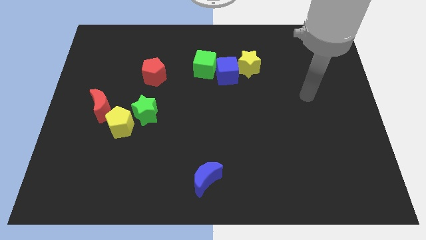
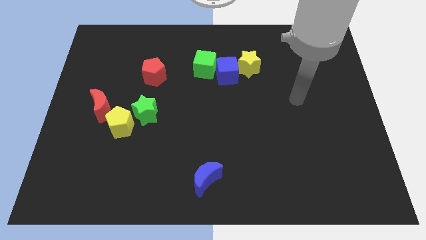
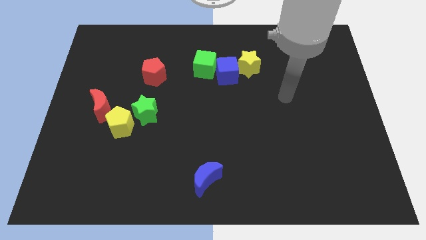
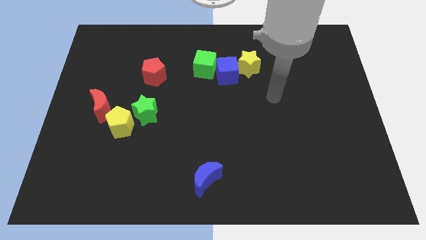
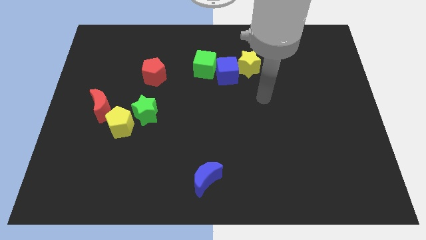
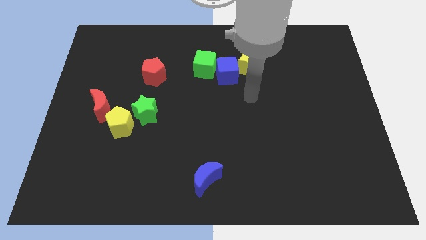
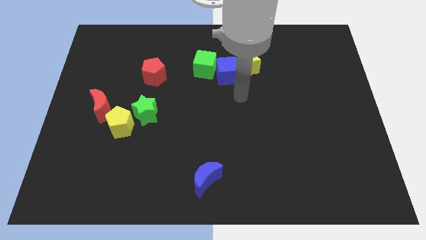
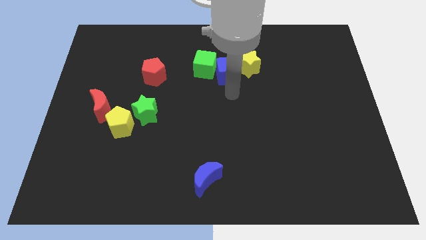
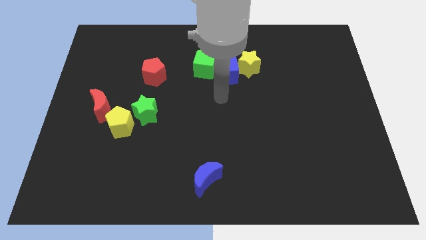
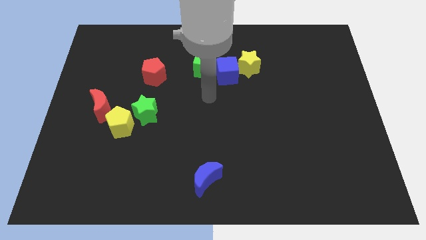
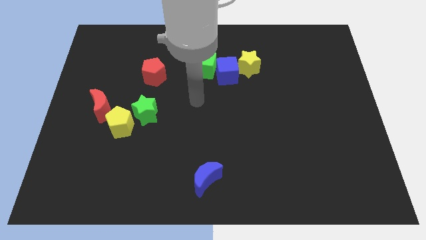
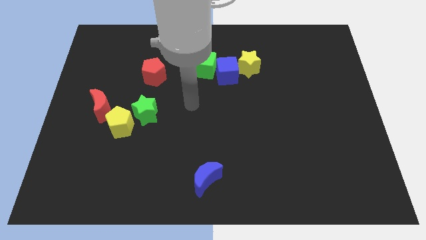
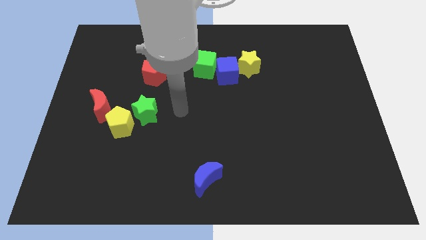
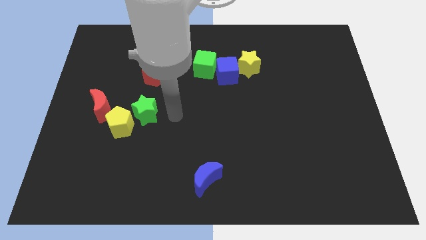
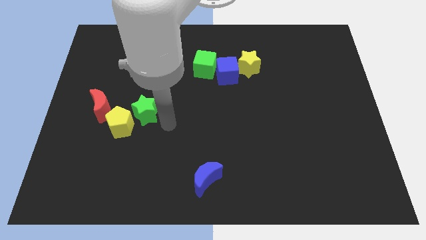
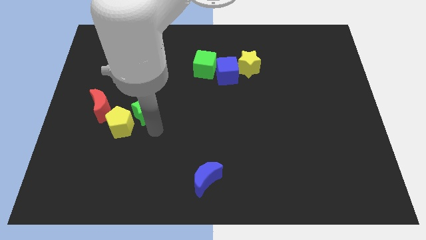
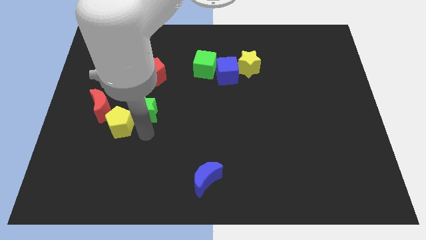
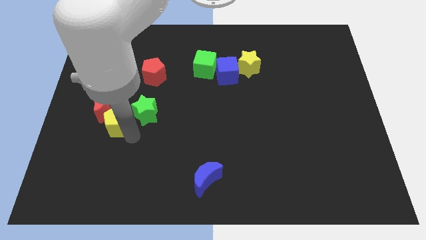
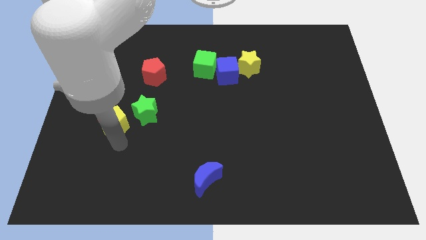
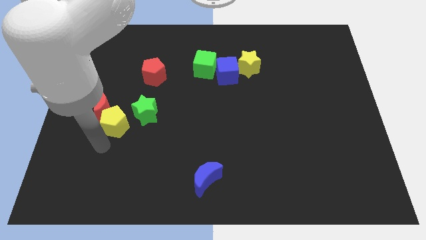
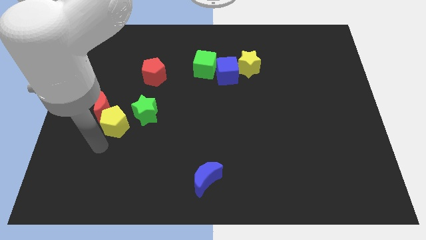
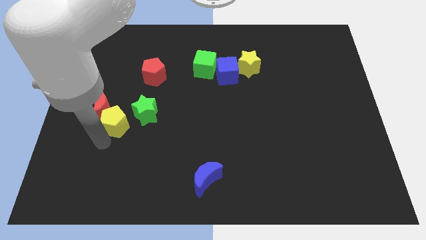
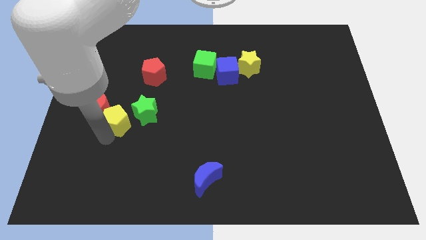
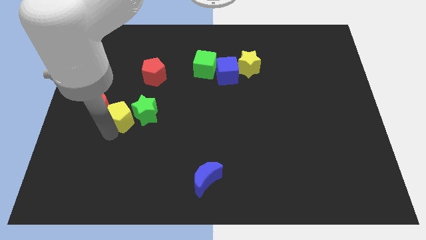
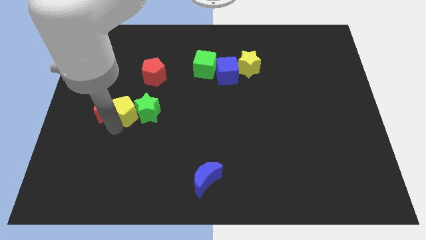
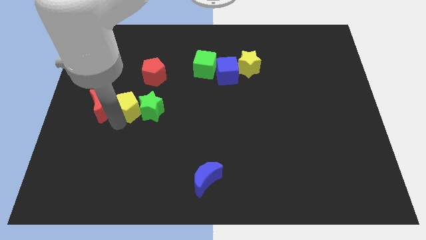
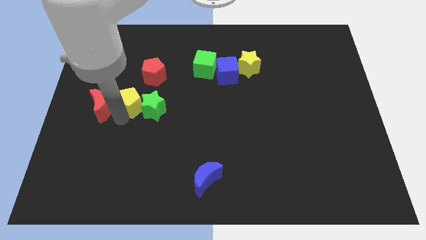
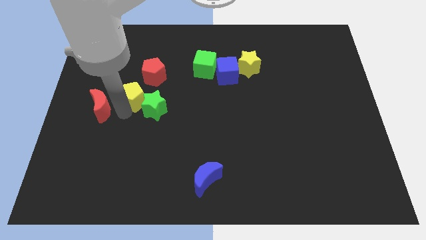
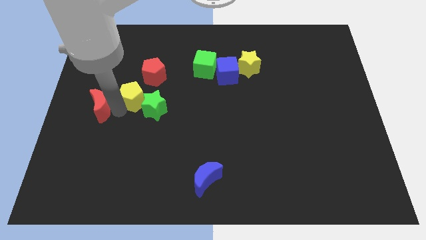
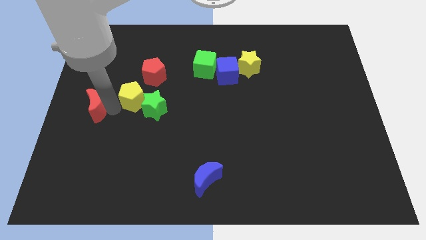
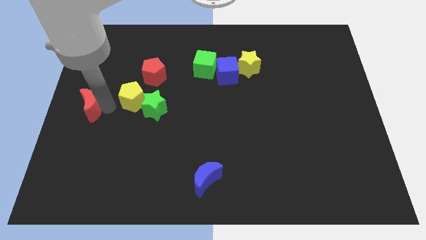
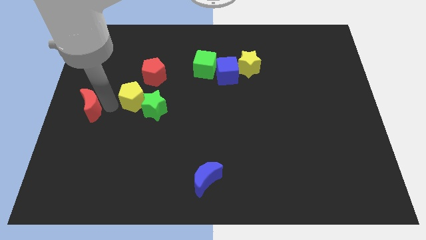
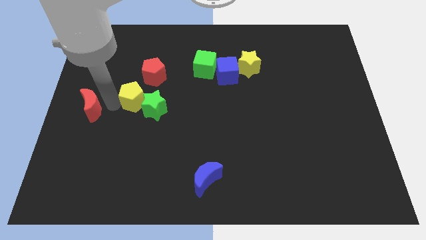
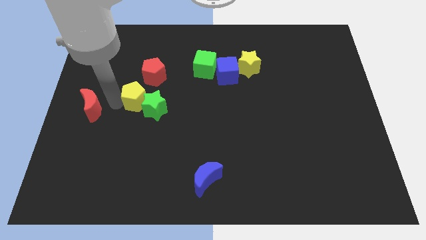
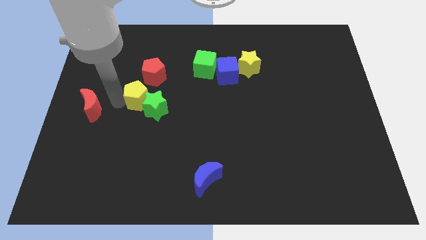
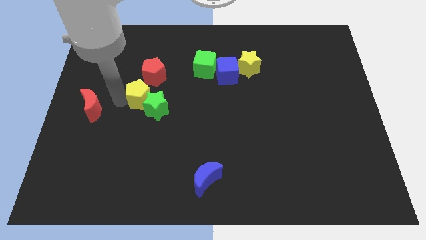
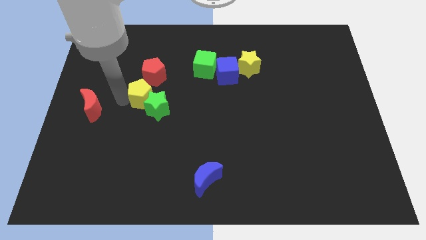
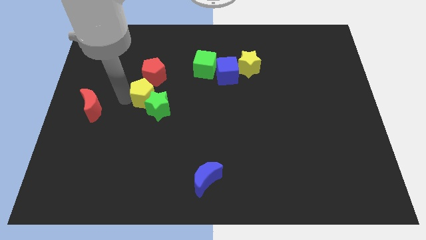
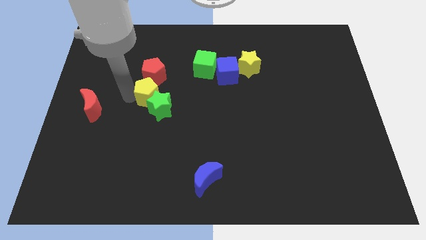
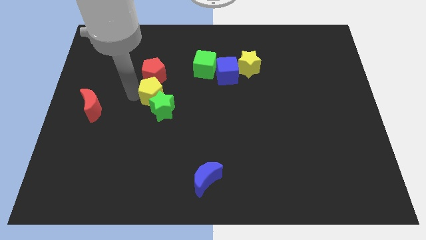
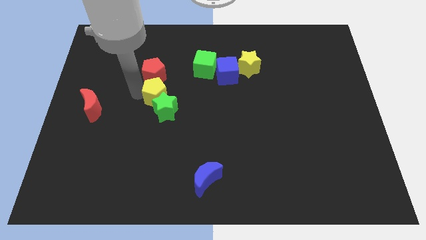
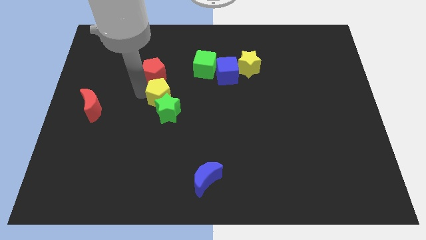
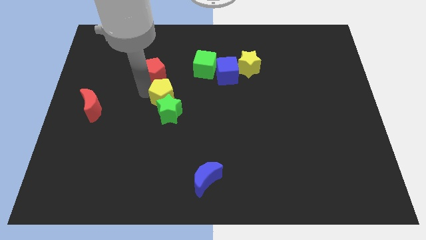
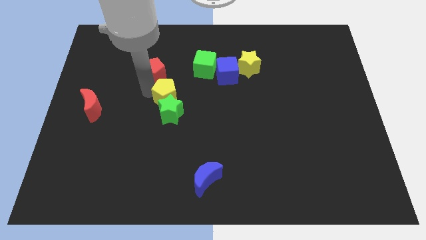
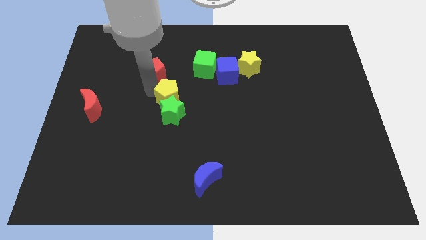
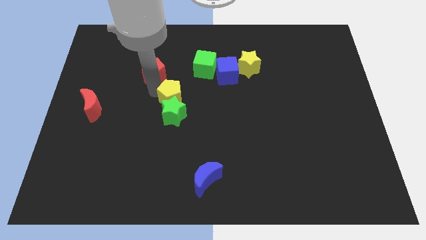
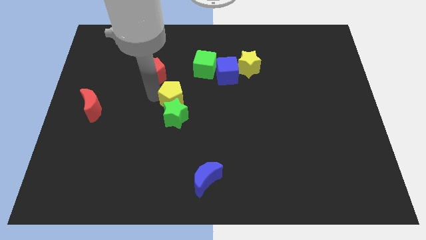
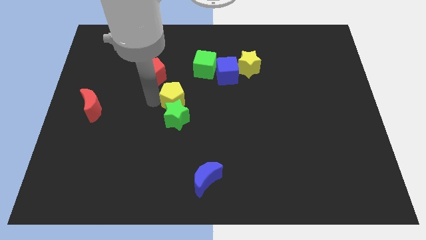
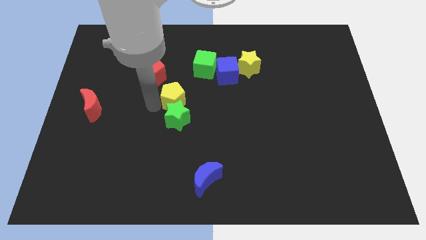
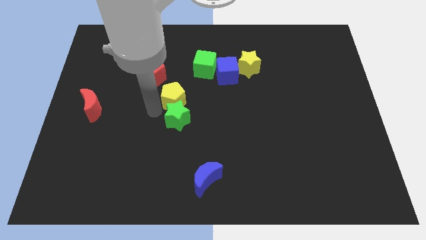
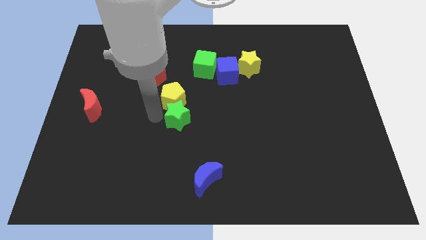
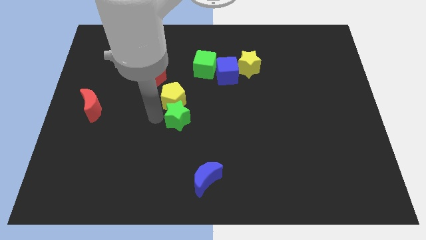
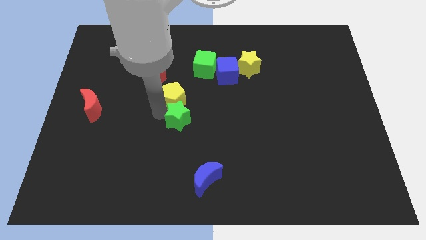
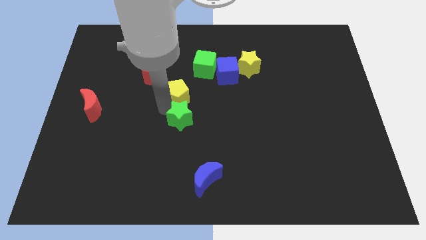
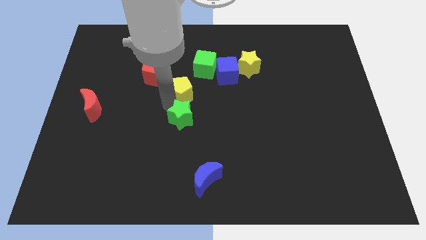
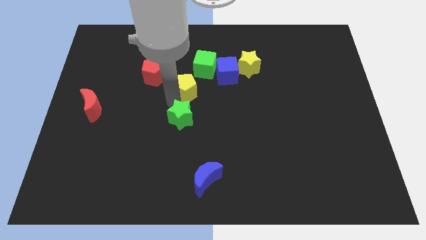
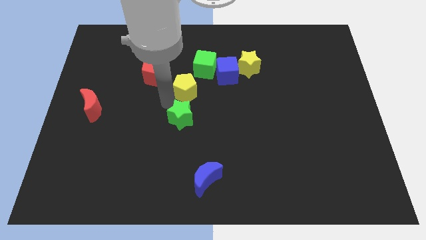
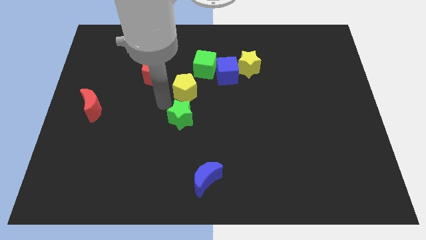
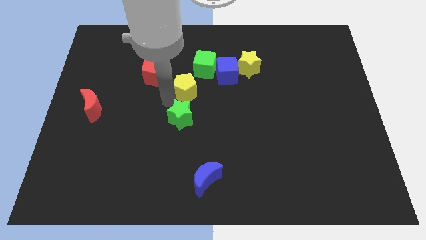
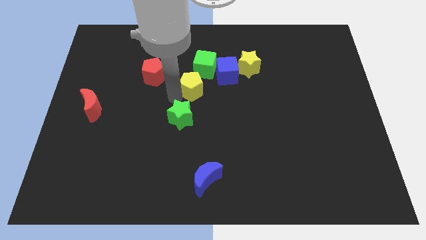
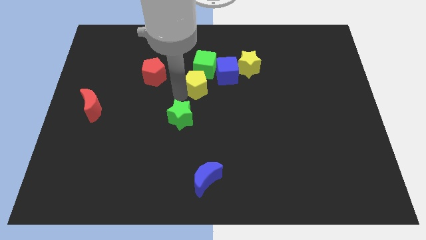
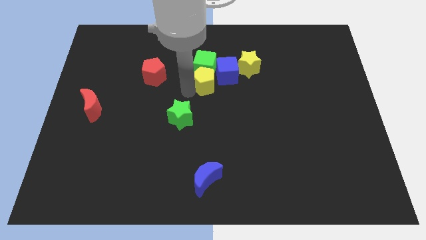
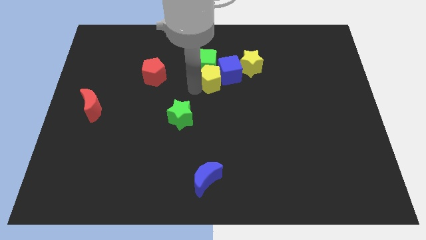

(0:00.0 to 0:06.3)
push the yellow pentagon towards the blue cube
